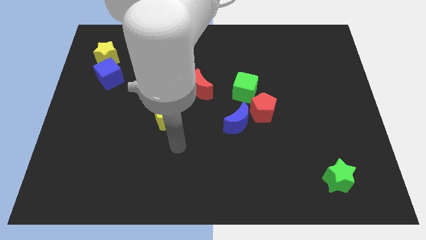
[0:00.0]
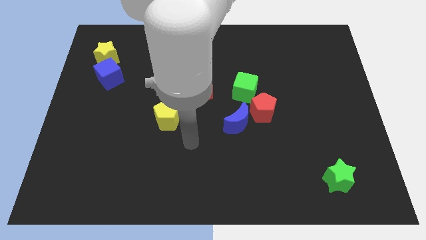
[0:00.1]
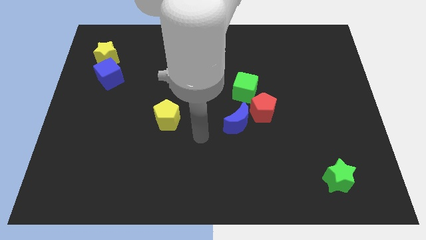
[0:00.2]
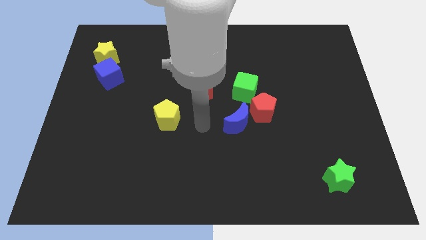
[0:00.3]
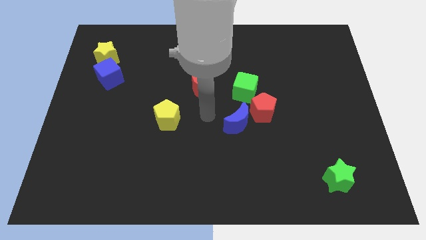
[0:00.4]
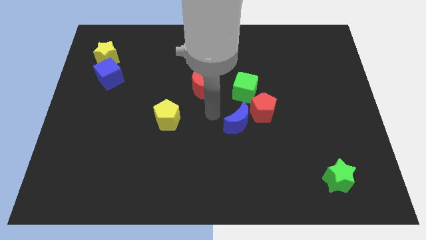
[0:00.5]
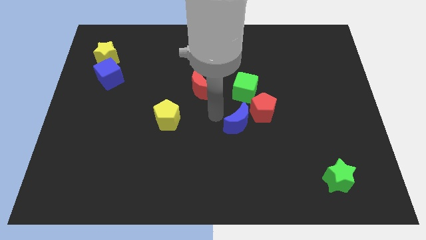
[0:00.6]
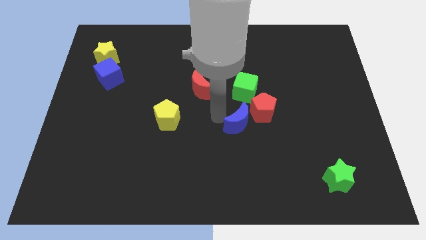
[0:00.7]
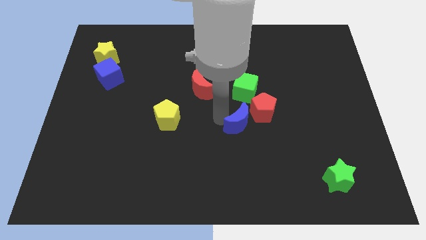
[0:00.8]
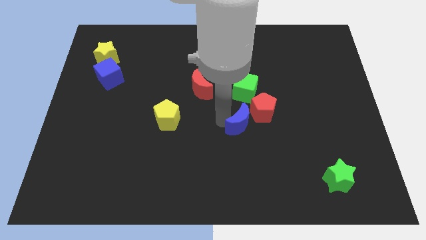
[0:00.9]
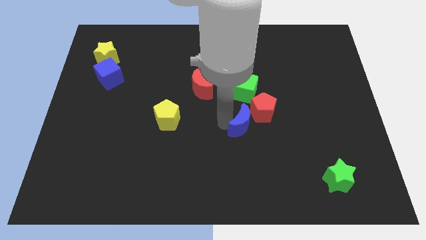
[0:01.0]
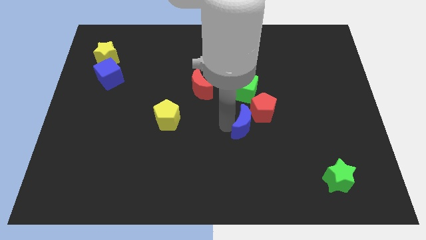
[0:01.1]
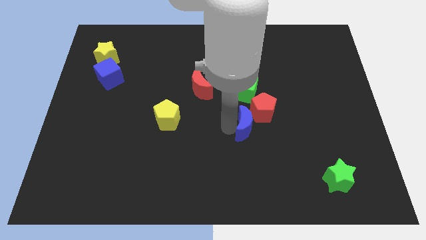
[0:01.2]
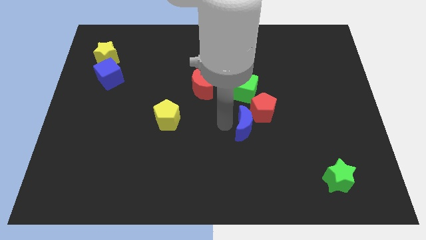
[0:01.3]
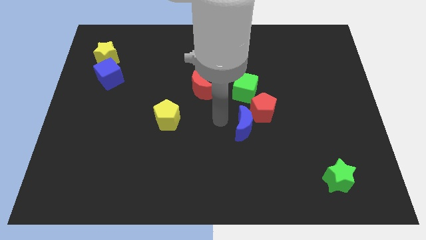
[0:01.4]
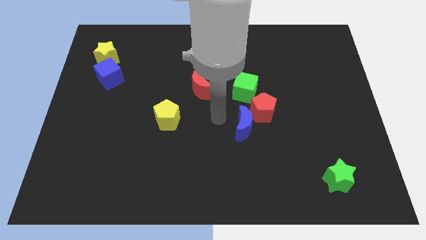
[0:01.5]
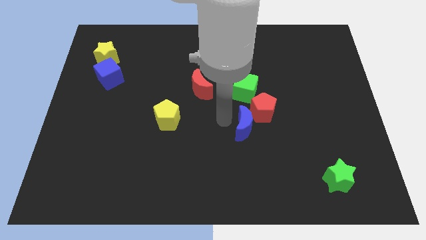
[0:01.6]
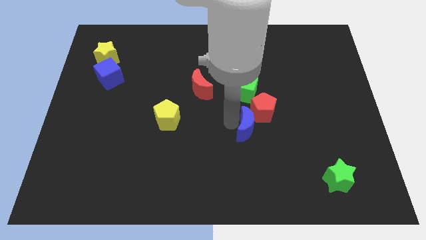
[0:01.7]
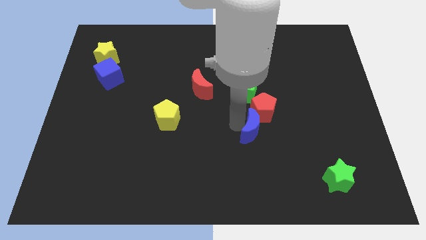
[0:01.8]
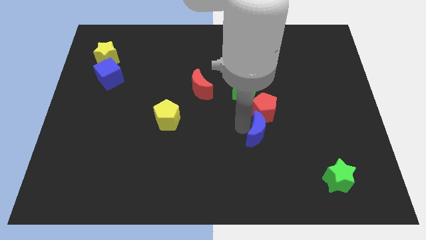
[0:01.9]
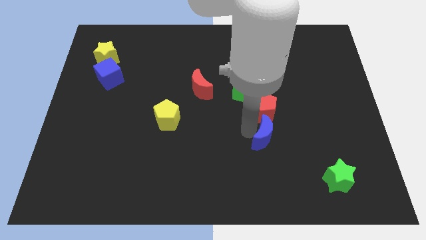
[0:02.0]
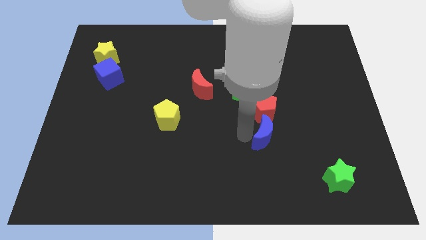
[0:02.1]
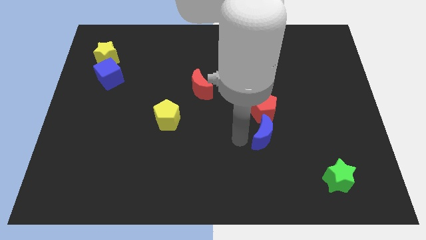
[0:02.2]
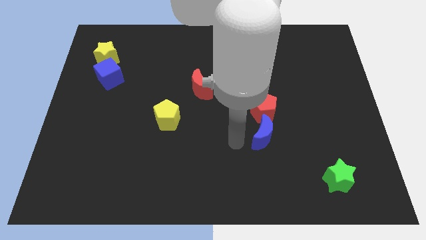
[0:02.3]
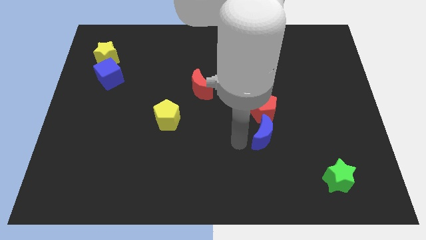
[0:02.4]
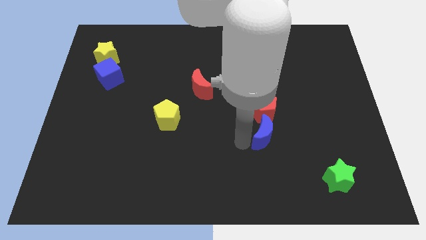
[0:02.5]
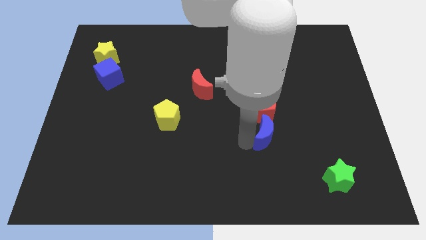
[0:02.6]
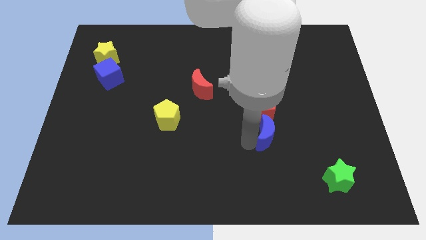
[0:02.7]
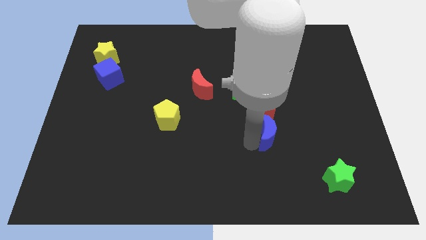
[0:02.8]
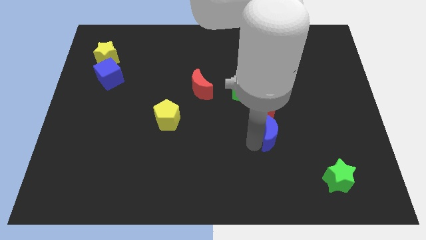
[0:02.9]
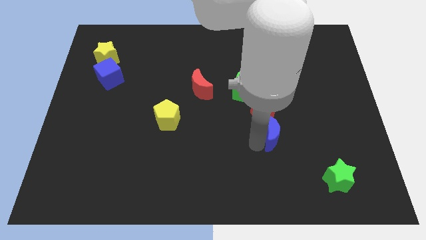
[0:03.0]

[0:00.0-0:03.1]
move the blue moon to the right somewhat

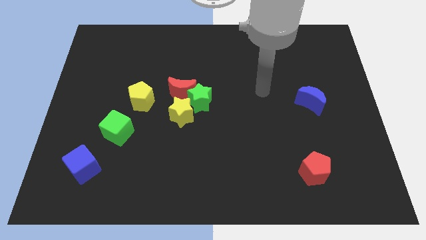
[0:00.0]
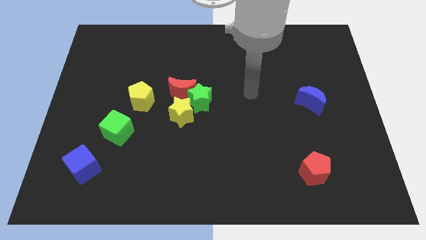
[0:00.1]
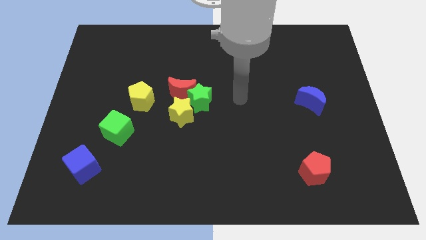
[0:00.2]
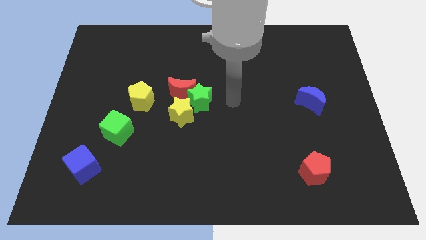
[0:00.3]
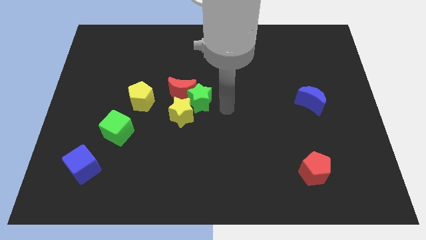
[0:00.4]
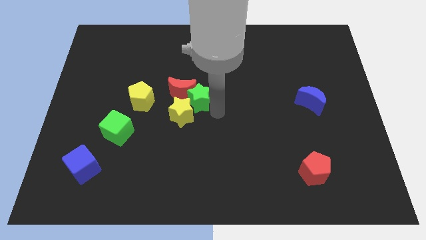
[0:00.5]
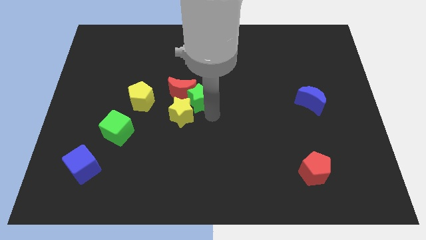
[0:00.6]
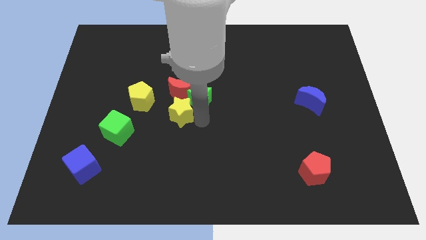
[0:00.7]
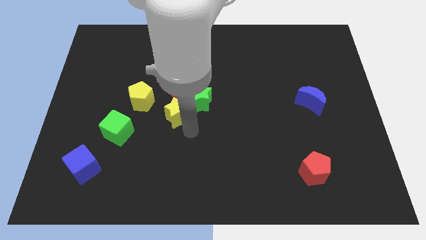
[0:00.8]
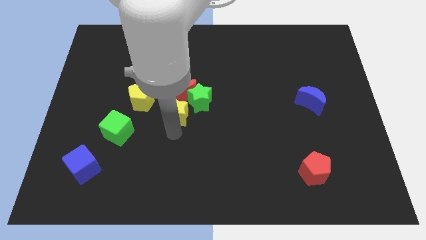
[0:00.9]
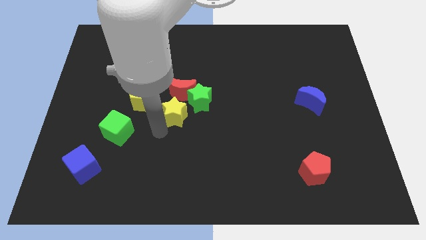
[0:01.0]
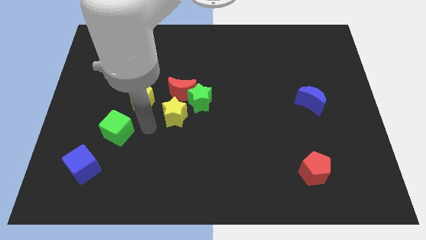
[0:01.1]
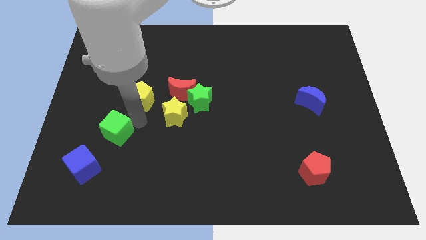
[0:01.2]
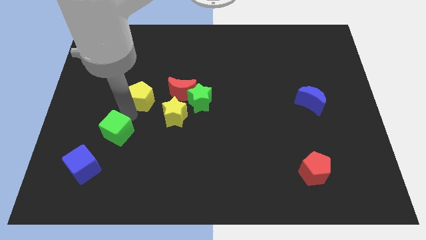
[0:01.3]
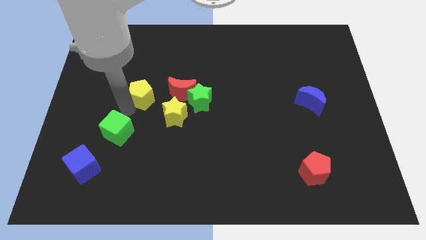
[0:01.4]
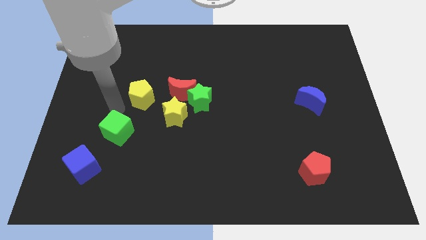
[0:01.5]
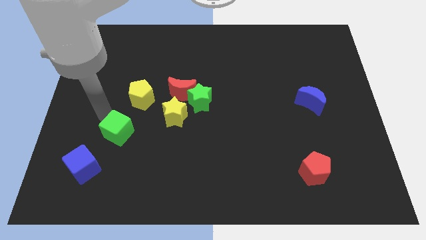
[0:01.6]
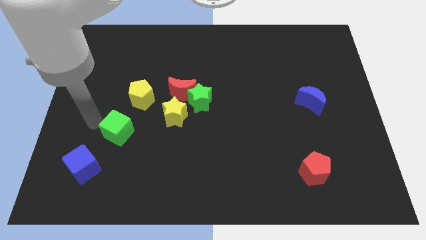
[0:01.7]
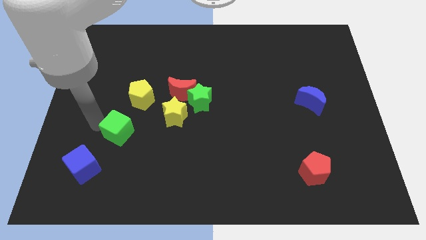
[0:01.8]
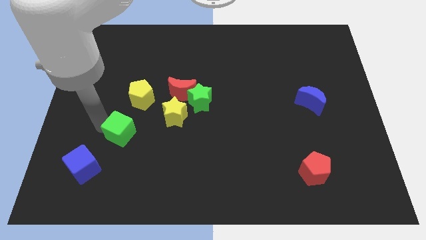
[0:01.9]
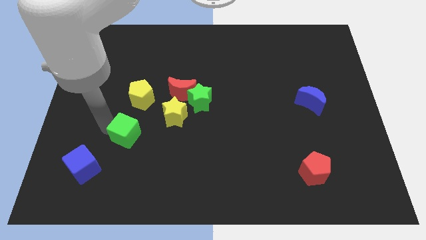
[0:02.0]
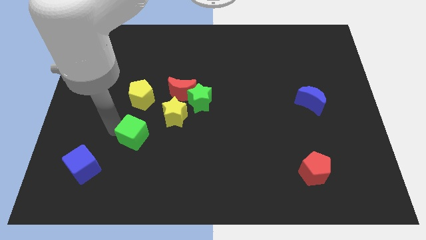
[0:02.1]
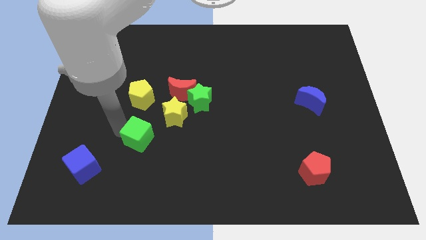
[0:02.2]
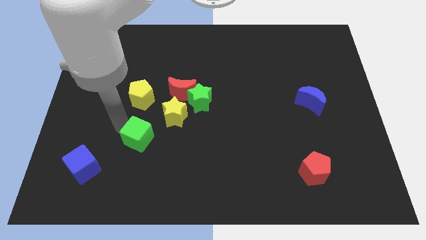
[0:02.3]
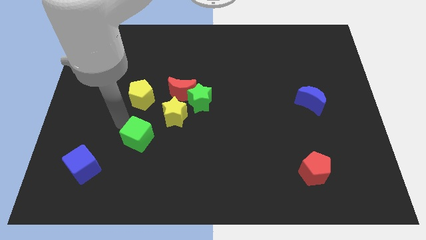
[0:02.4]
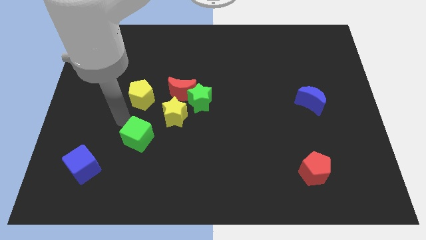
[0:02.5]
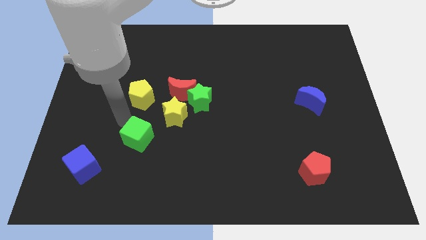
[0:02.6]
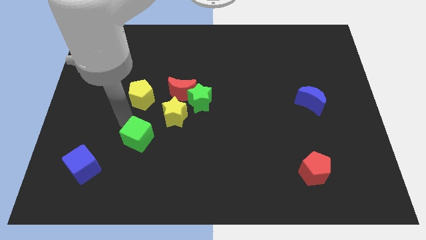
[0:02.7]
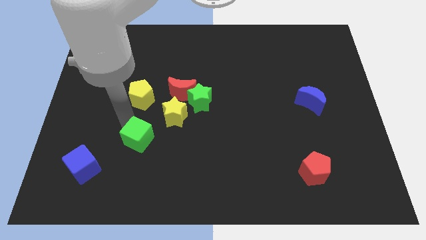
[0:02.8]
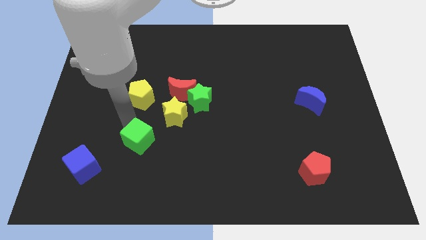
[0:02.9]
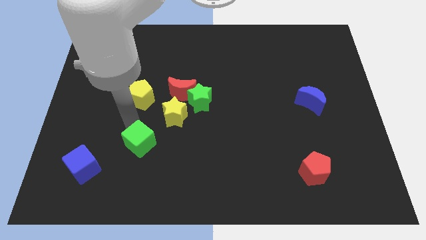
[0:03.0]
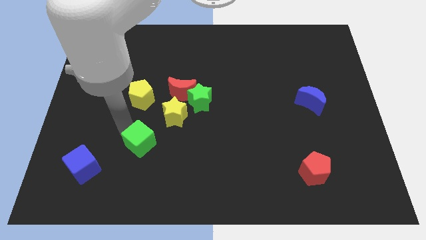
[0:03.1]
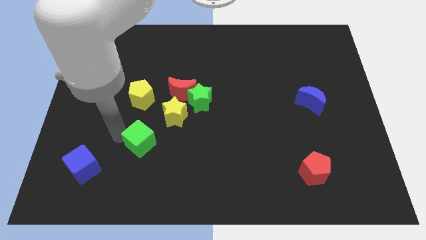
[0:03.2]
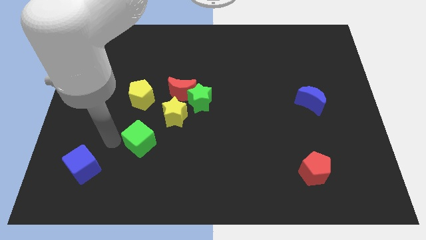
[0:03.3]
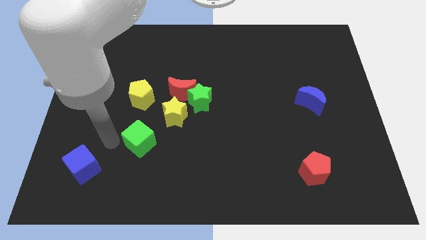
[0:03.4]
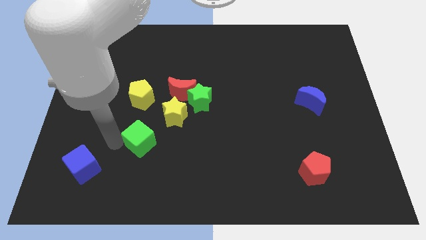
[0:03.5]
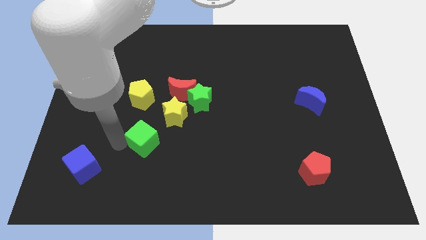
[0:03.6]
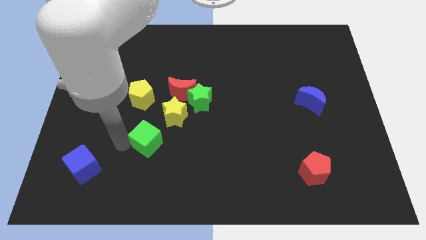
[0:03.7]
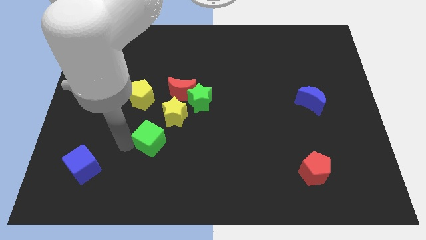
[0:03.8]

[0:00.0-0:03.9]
move the green cube a little to the right

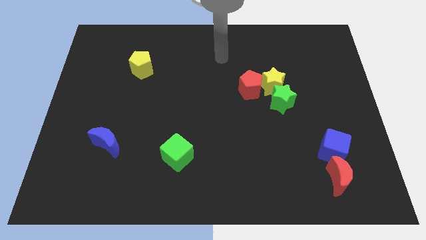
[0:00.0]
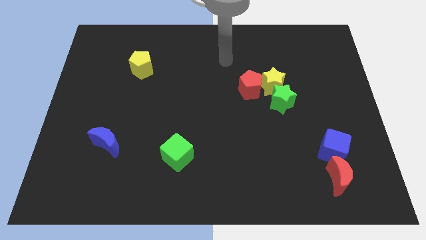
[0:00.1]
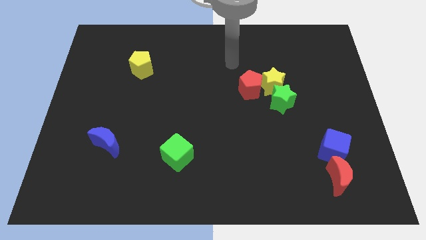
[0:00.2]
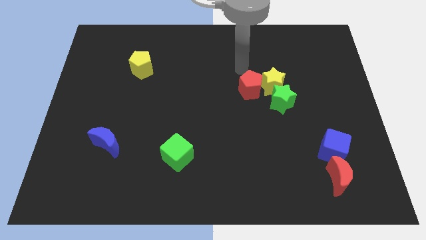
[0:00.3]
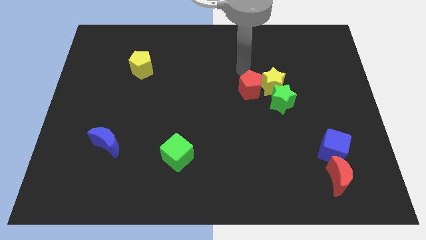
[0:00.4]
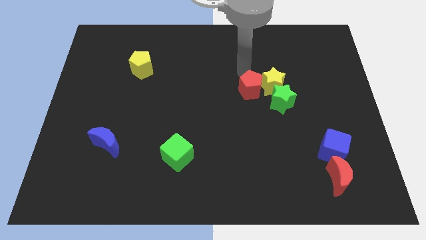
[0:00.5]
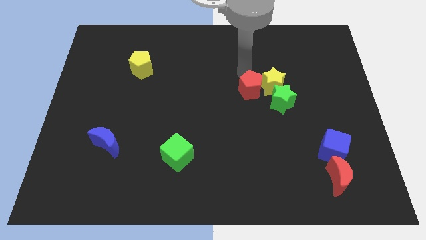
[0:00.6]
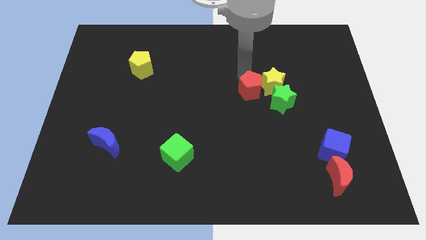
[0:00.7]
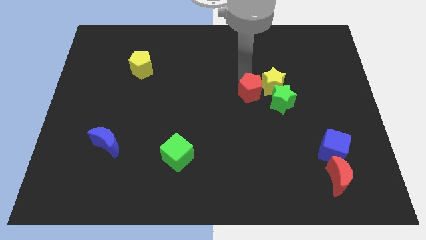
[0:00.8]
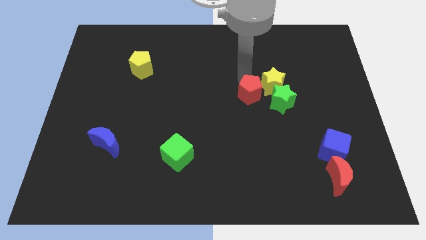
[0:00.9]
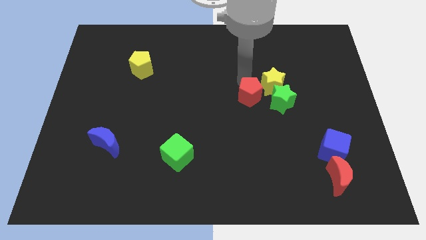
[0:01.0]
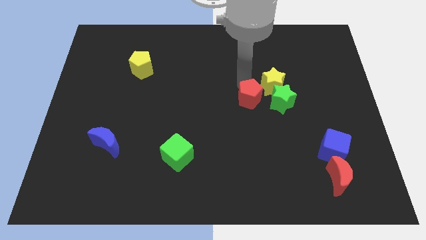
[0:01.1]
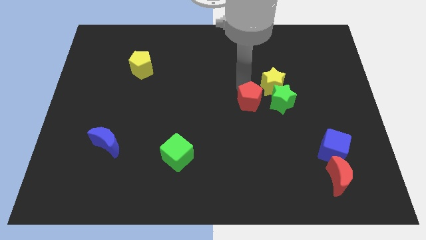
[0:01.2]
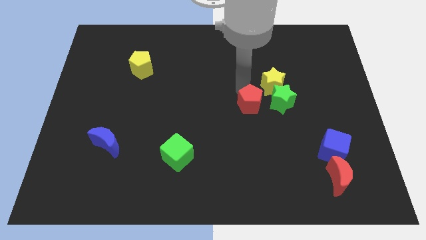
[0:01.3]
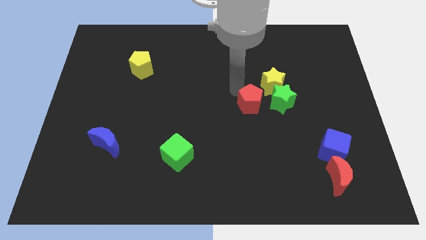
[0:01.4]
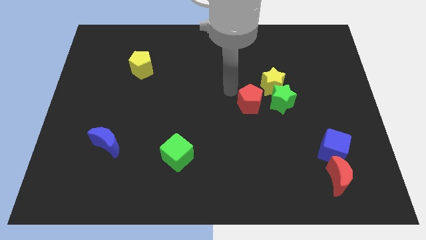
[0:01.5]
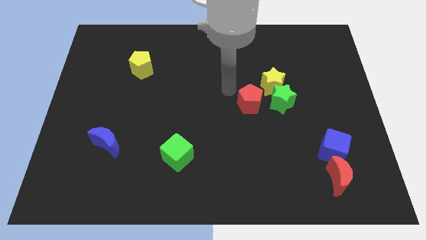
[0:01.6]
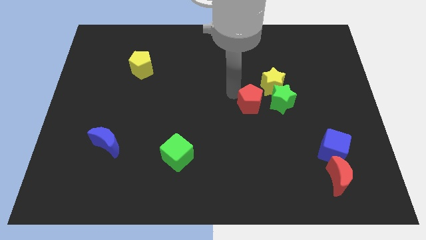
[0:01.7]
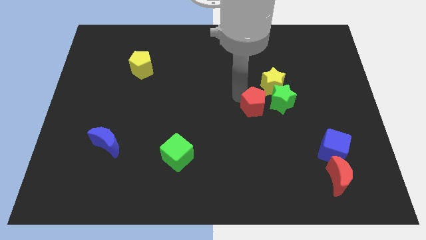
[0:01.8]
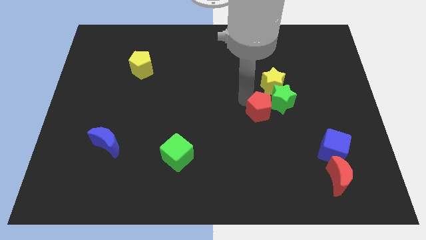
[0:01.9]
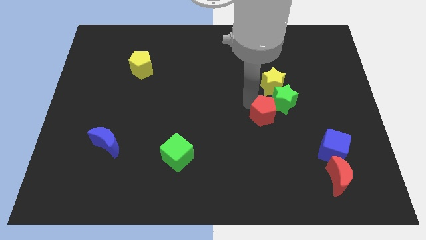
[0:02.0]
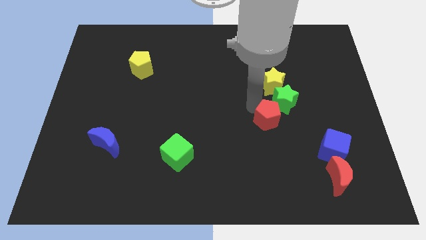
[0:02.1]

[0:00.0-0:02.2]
push the red pentagon a little bit downwards and to the right
